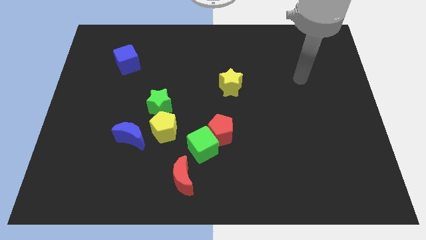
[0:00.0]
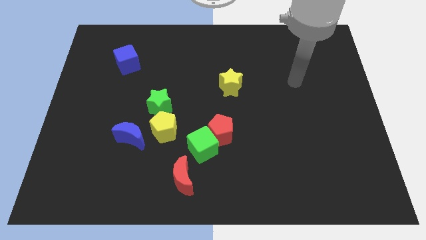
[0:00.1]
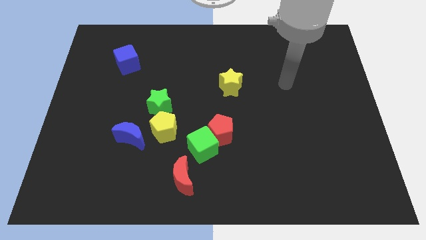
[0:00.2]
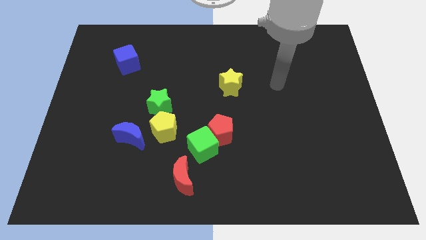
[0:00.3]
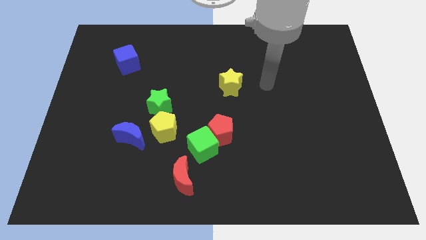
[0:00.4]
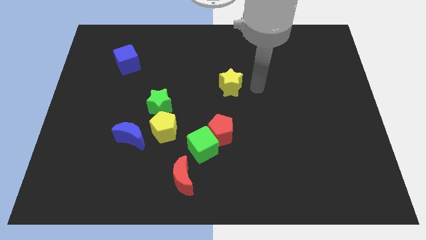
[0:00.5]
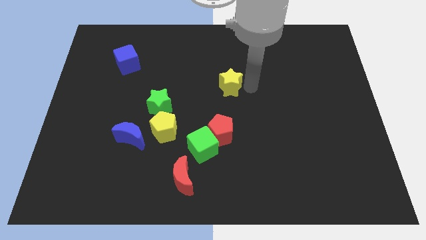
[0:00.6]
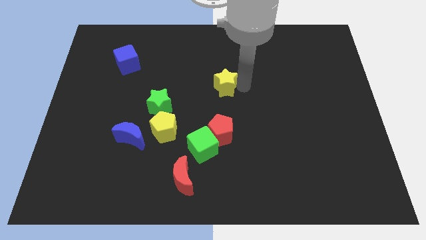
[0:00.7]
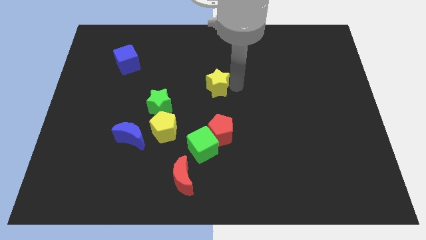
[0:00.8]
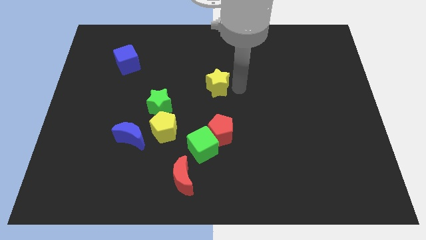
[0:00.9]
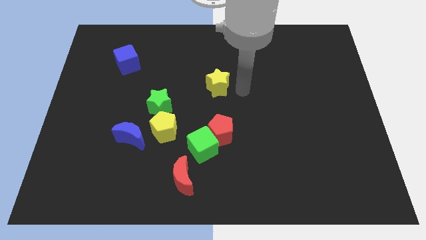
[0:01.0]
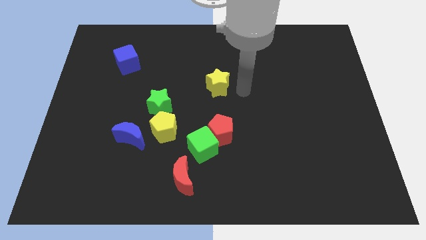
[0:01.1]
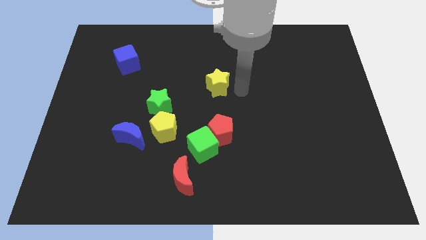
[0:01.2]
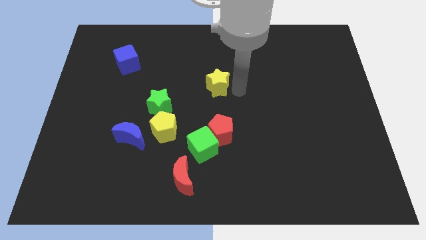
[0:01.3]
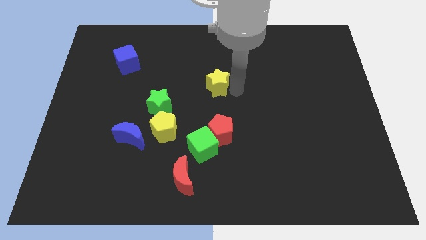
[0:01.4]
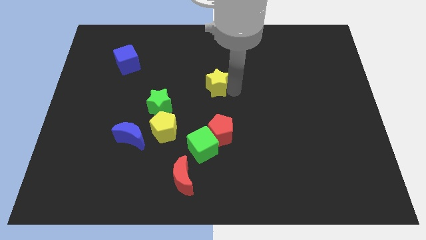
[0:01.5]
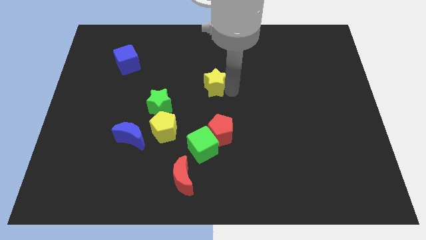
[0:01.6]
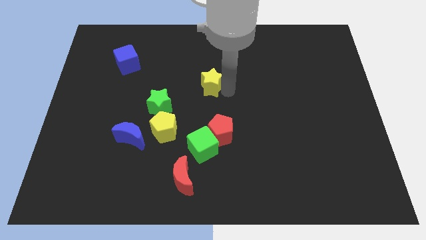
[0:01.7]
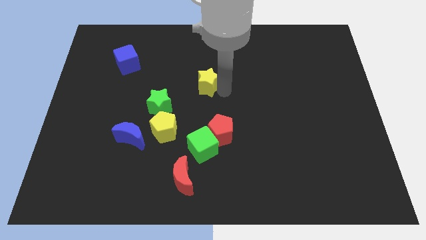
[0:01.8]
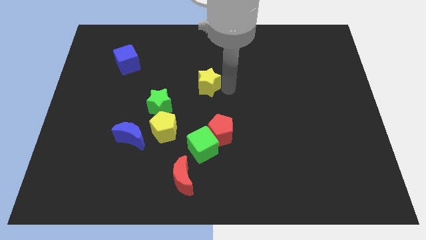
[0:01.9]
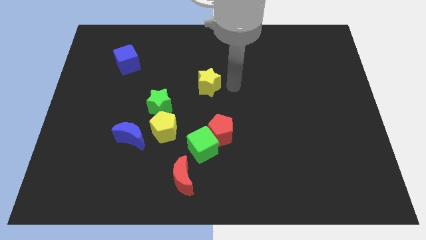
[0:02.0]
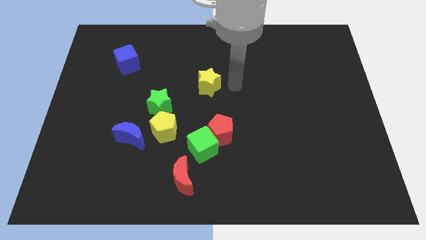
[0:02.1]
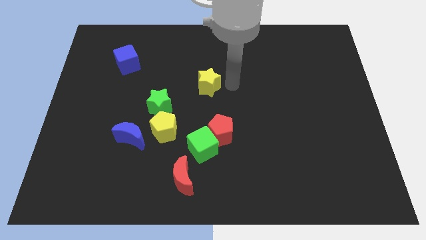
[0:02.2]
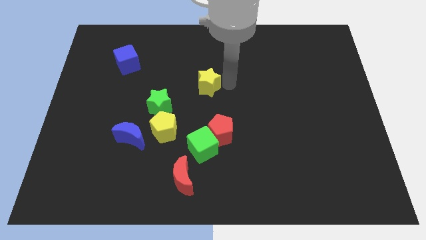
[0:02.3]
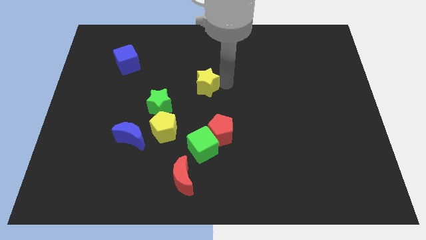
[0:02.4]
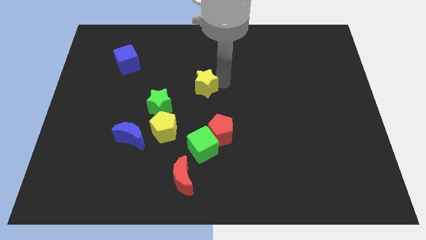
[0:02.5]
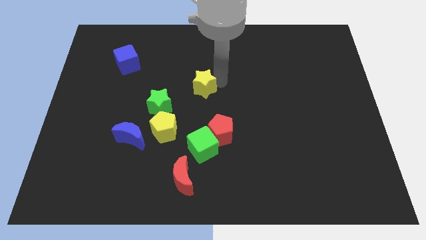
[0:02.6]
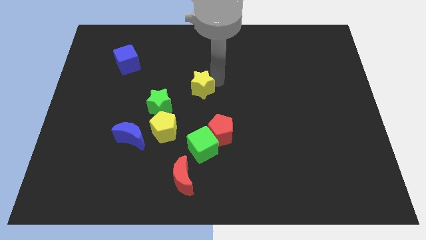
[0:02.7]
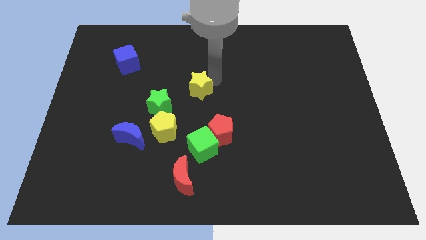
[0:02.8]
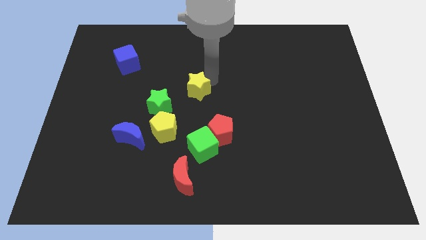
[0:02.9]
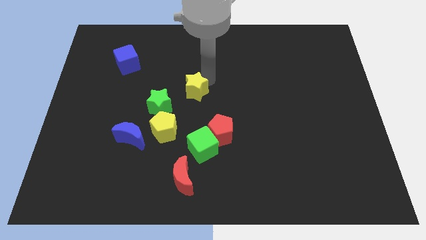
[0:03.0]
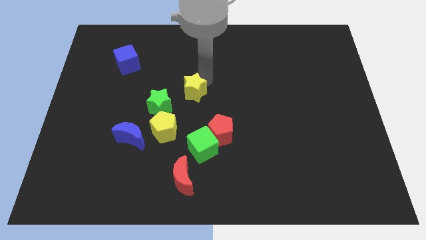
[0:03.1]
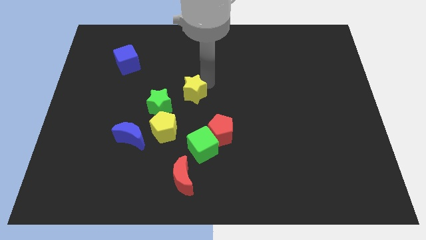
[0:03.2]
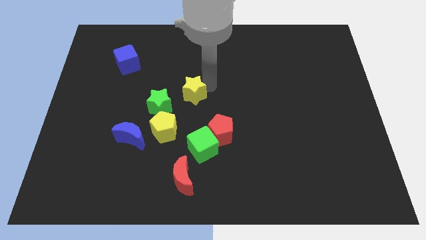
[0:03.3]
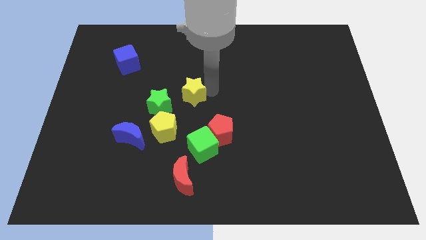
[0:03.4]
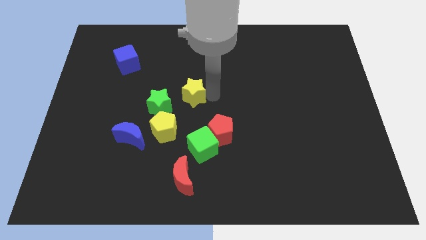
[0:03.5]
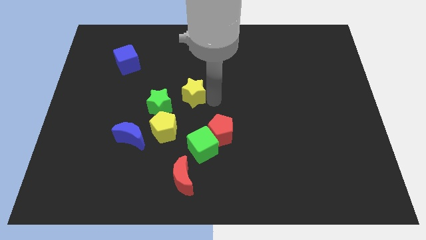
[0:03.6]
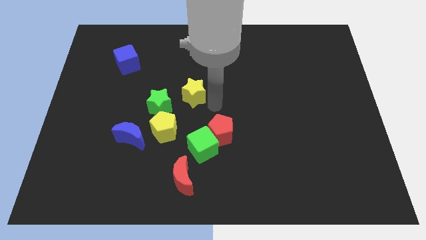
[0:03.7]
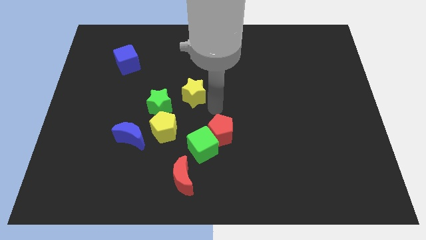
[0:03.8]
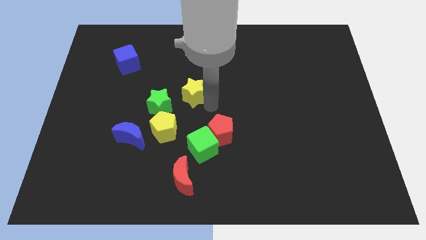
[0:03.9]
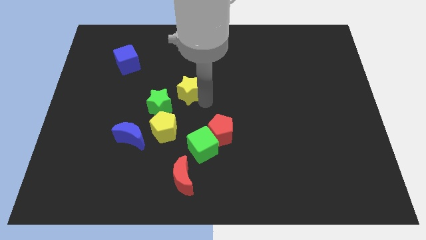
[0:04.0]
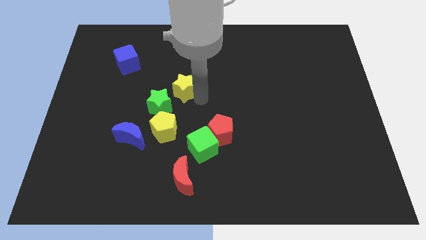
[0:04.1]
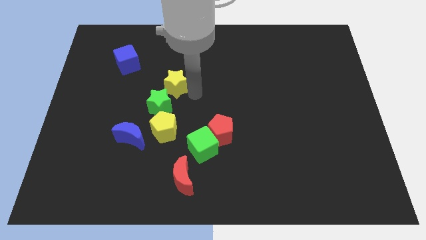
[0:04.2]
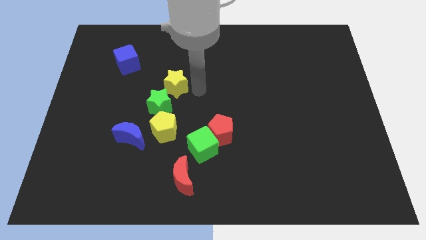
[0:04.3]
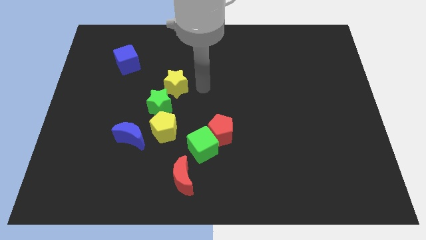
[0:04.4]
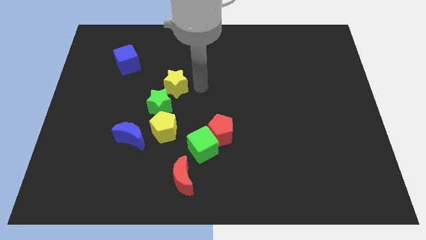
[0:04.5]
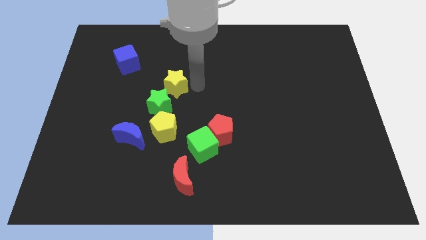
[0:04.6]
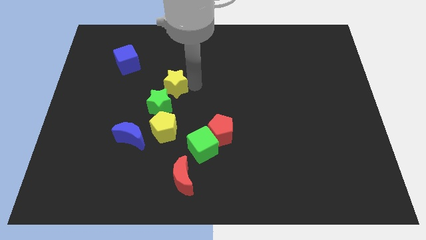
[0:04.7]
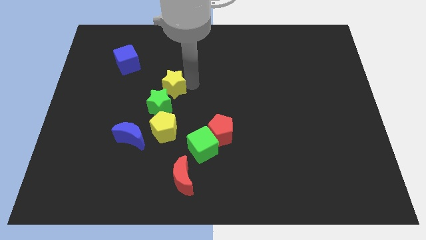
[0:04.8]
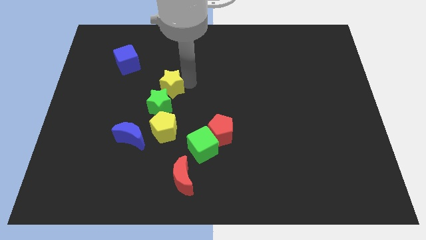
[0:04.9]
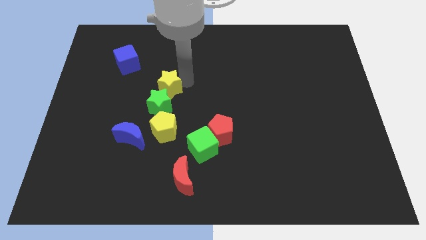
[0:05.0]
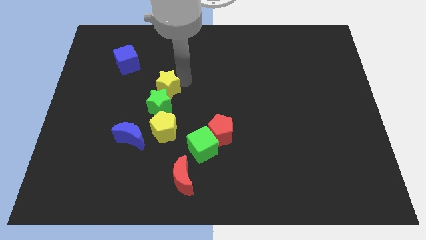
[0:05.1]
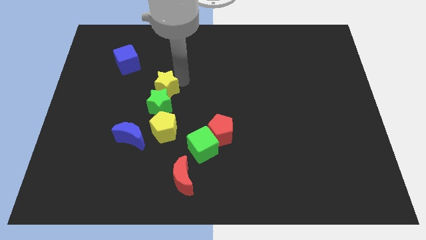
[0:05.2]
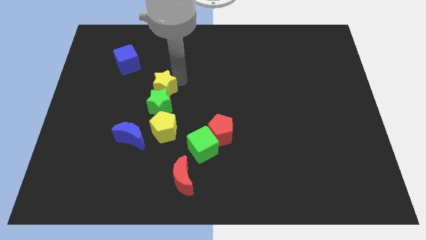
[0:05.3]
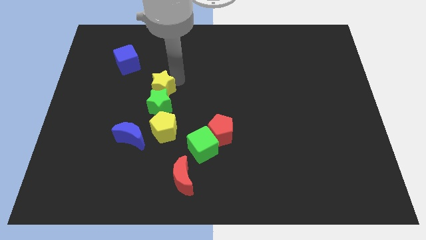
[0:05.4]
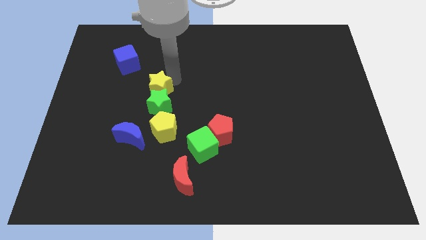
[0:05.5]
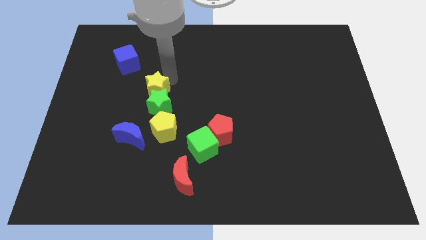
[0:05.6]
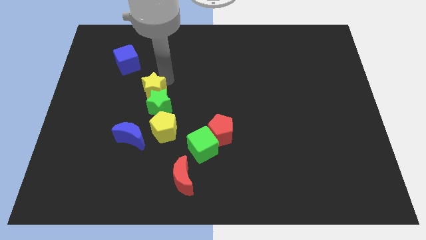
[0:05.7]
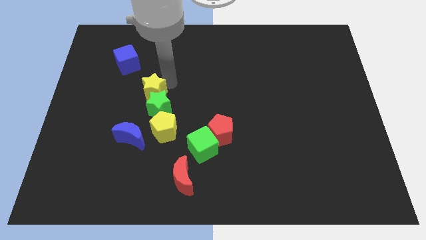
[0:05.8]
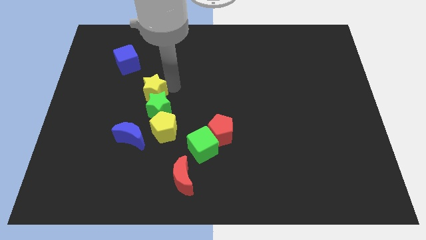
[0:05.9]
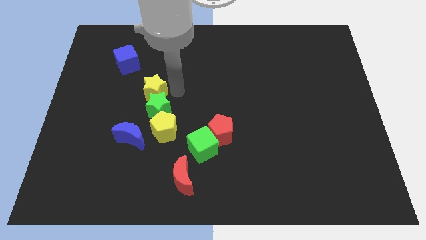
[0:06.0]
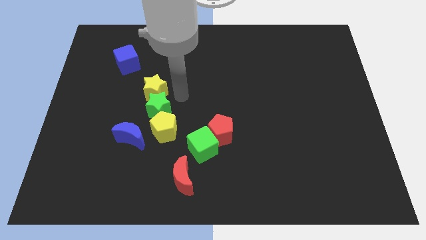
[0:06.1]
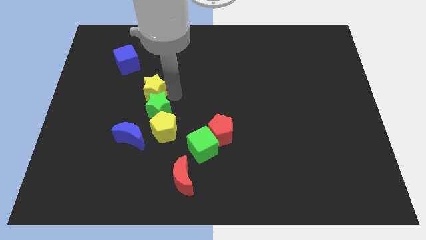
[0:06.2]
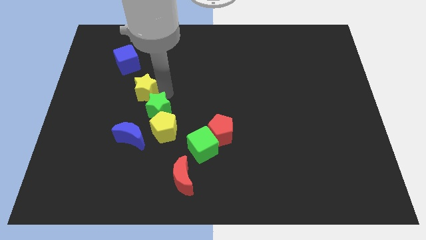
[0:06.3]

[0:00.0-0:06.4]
slide the yellow star to the left

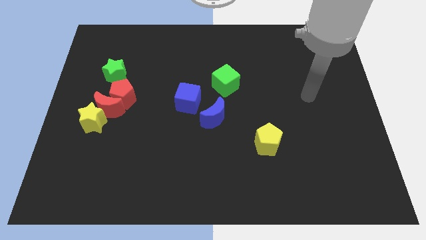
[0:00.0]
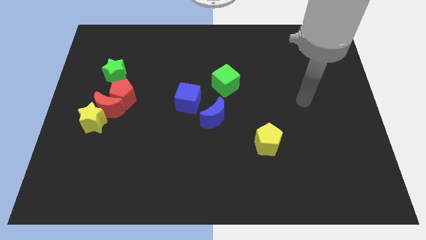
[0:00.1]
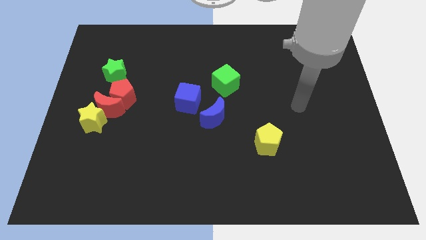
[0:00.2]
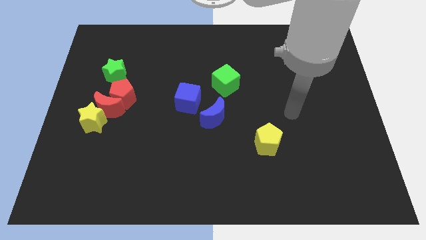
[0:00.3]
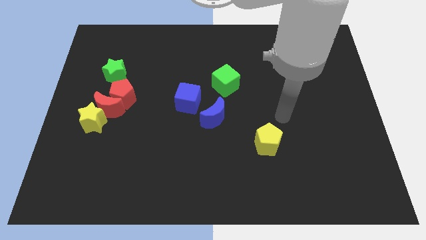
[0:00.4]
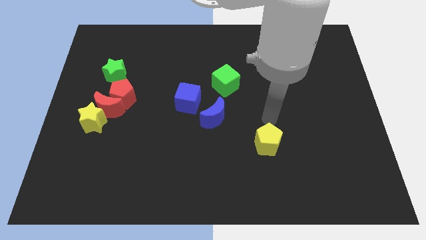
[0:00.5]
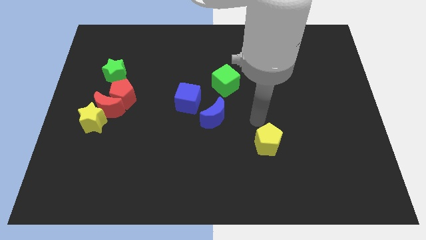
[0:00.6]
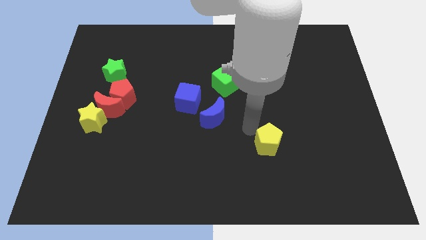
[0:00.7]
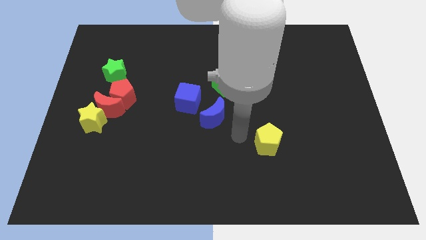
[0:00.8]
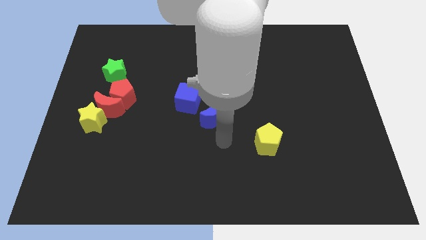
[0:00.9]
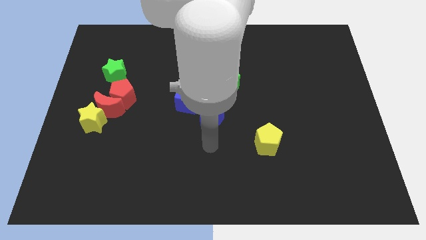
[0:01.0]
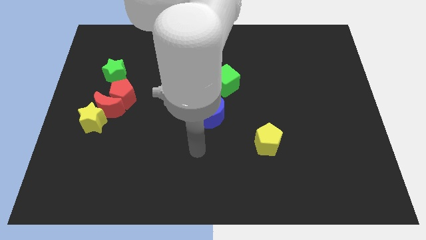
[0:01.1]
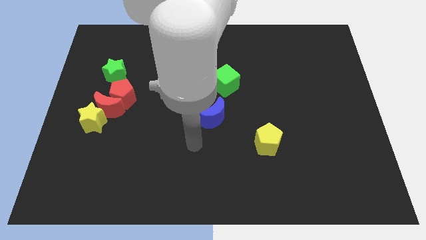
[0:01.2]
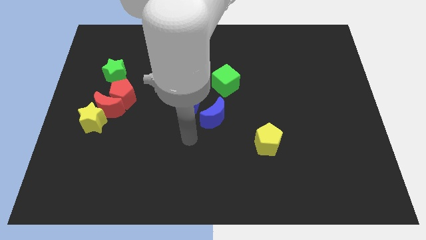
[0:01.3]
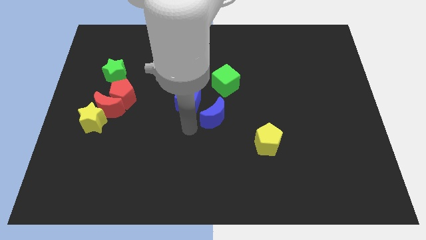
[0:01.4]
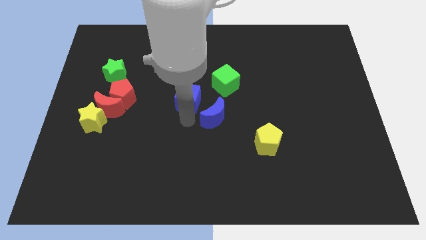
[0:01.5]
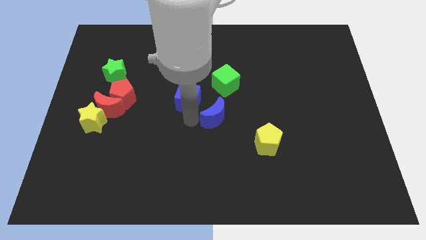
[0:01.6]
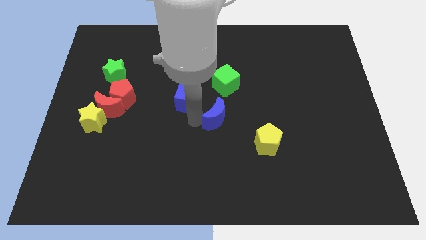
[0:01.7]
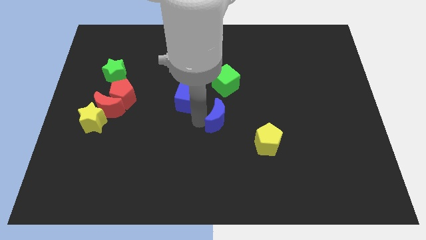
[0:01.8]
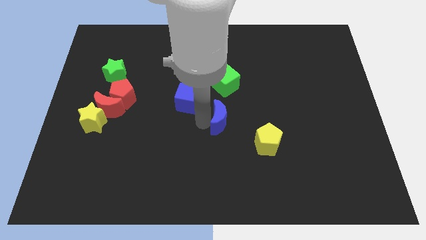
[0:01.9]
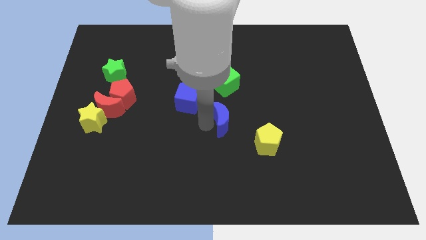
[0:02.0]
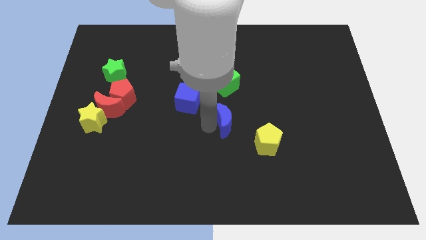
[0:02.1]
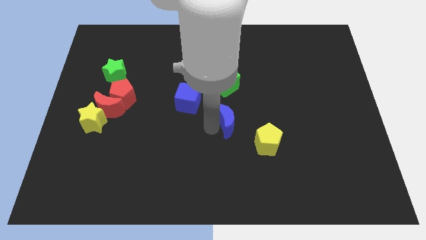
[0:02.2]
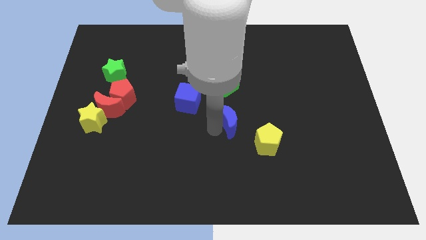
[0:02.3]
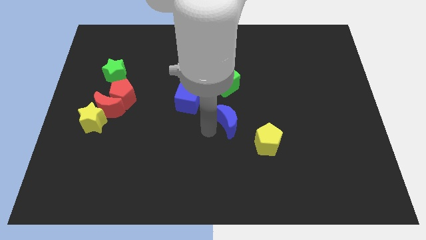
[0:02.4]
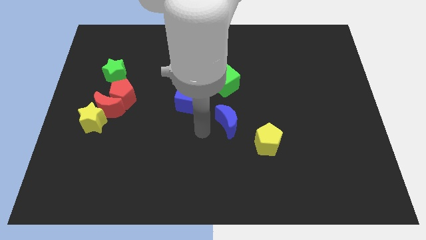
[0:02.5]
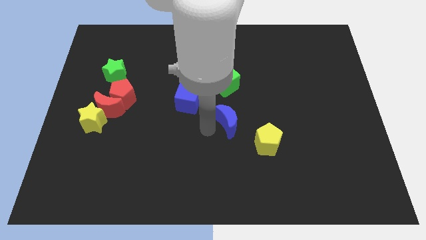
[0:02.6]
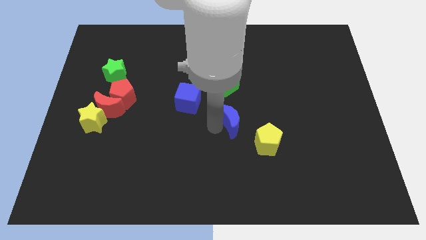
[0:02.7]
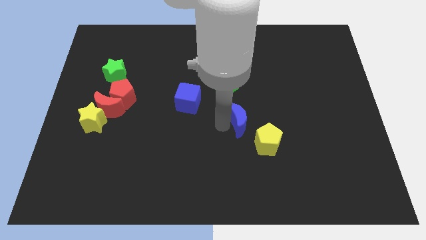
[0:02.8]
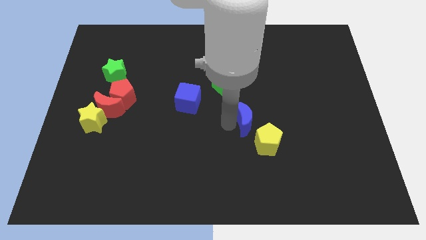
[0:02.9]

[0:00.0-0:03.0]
move the blue moon a bit right
